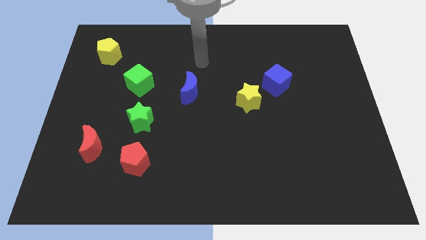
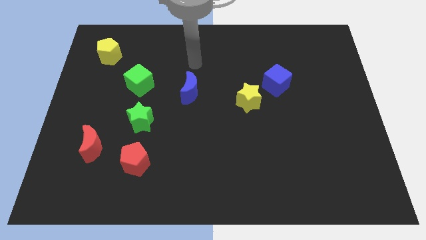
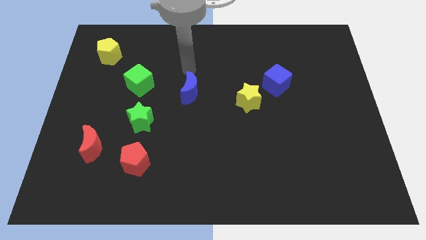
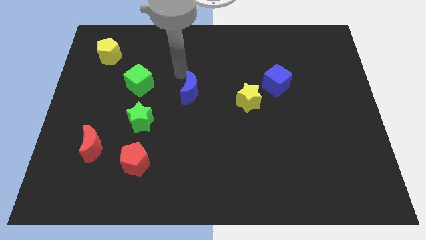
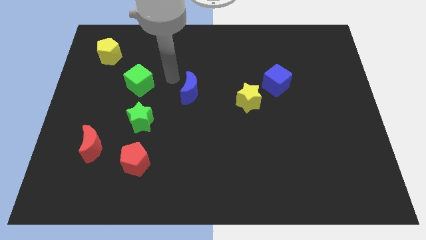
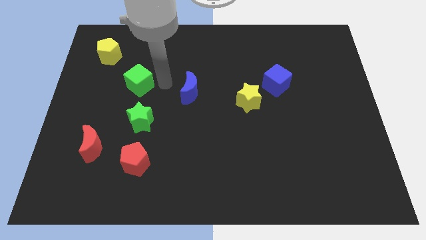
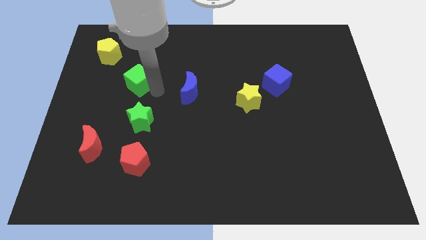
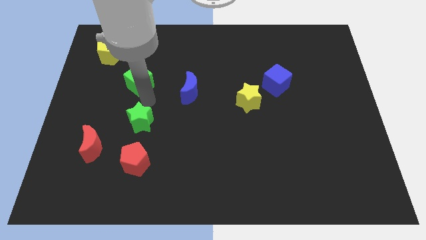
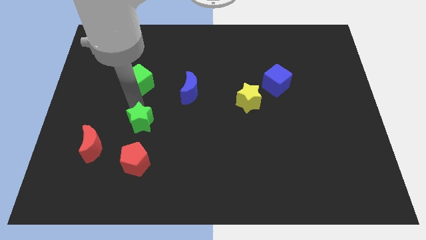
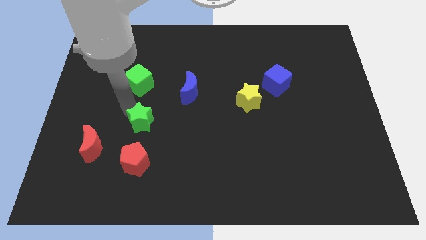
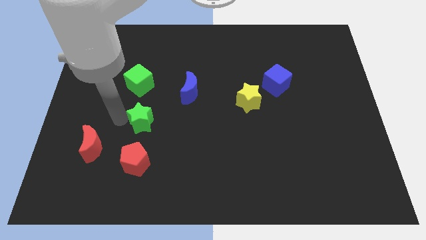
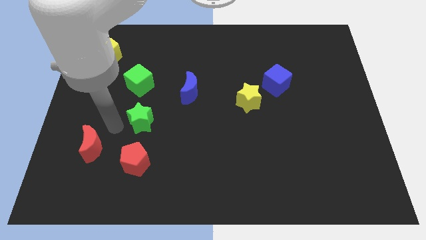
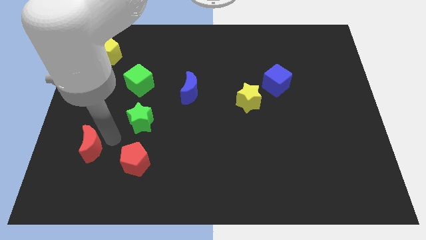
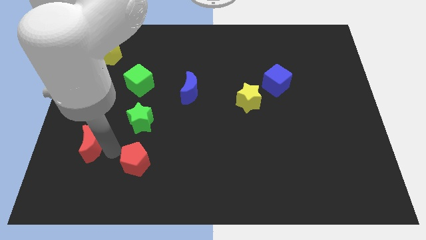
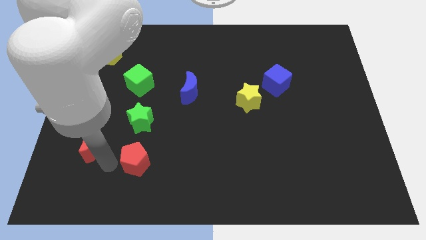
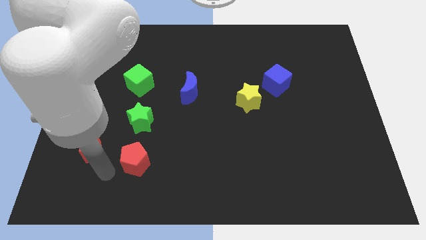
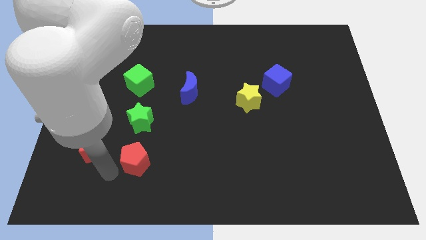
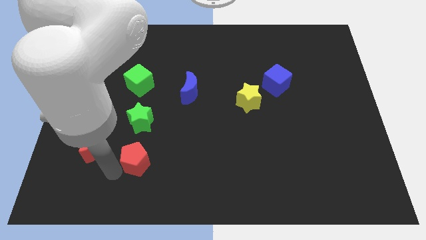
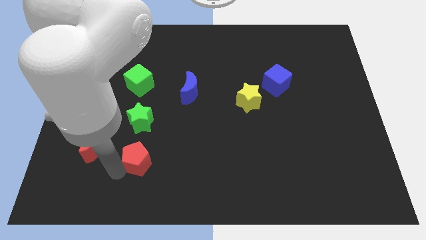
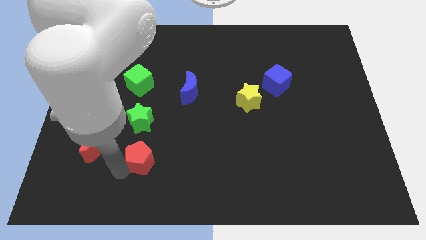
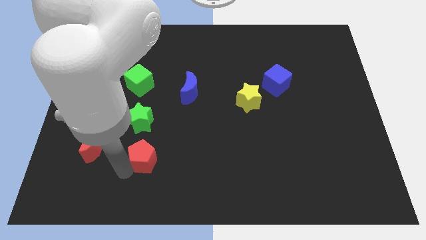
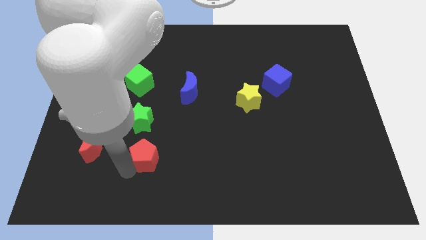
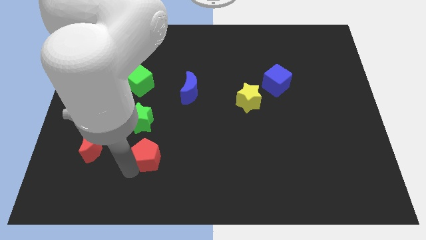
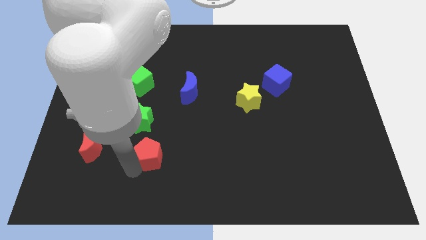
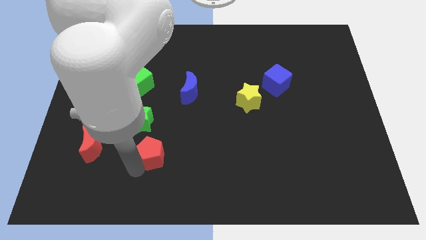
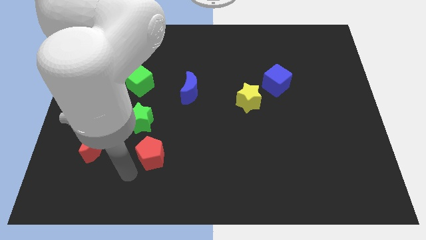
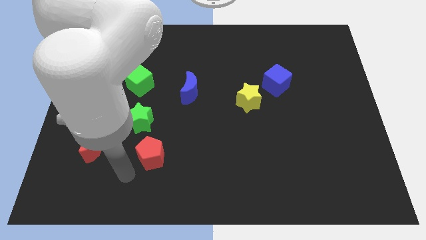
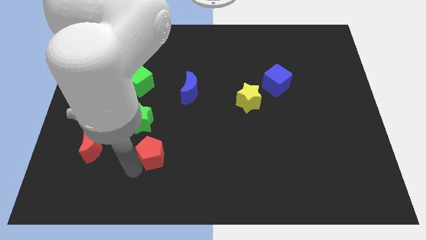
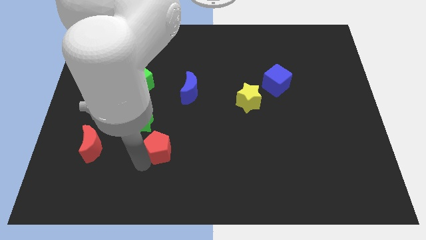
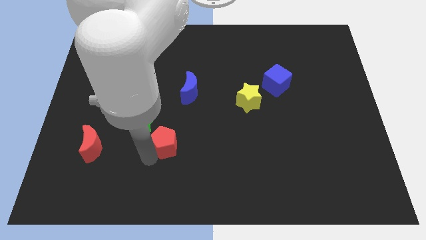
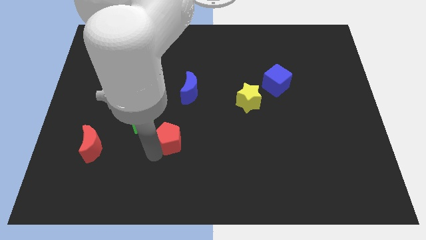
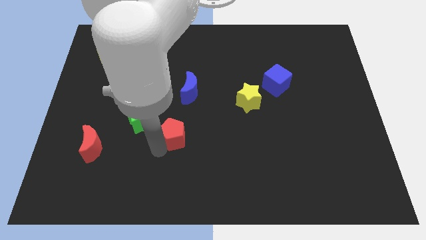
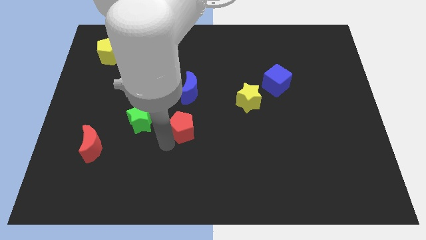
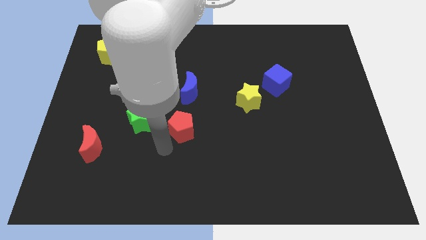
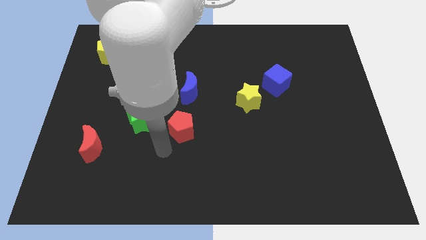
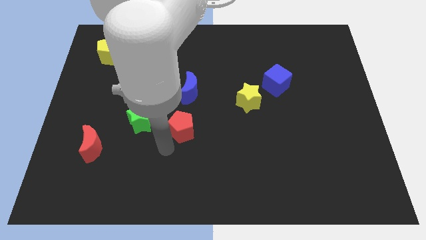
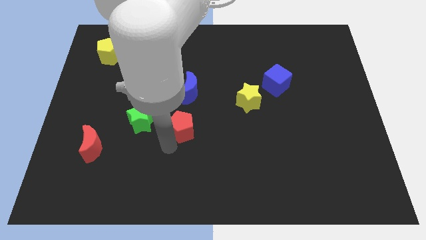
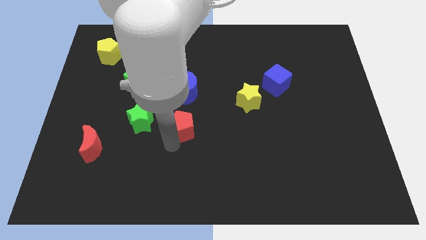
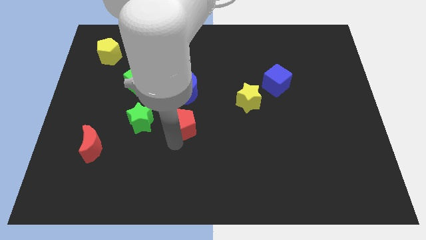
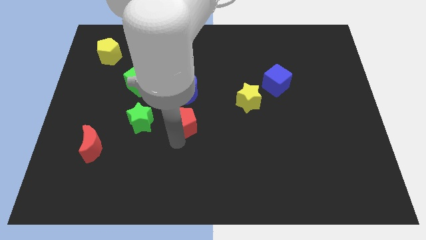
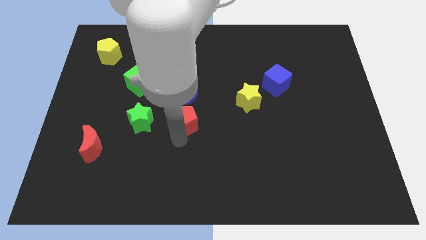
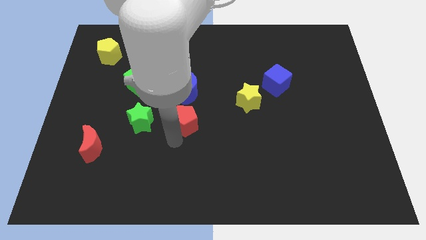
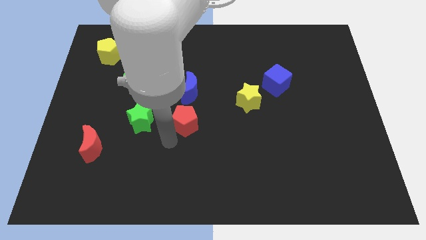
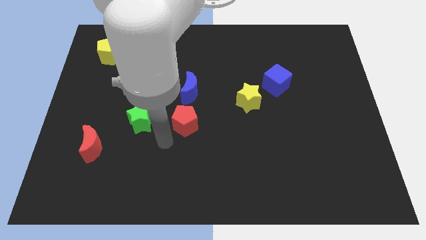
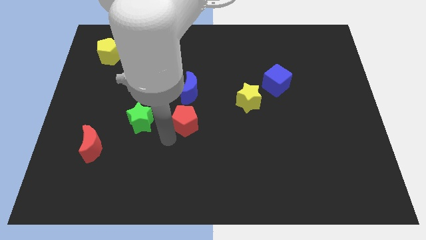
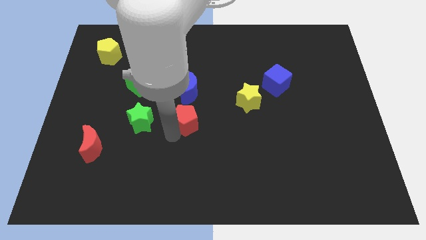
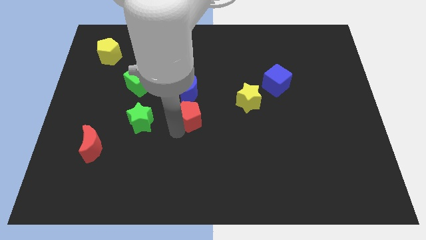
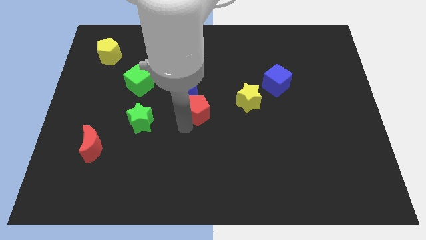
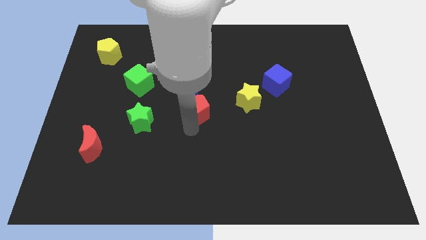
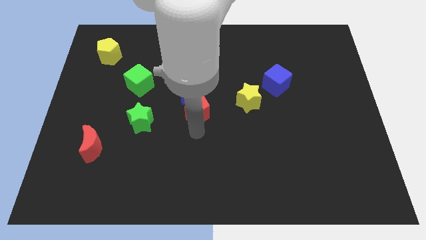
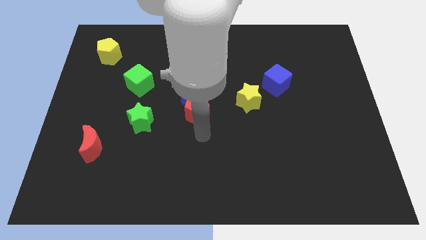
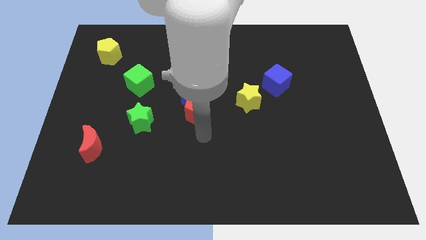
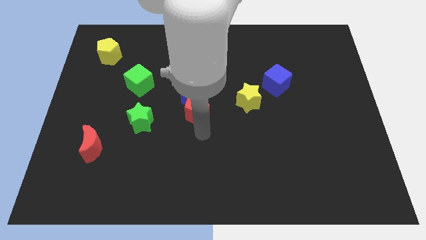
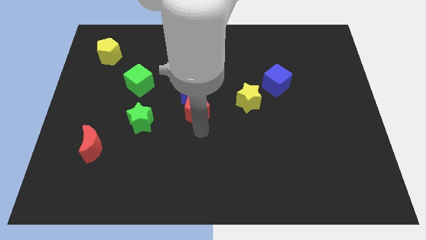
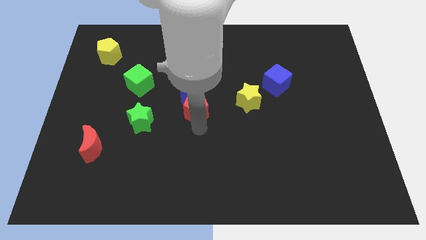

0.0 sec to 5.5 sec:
slide the red pentagon next to the blue moon
